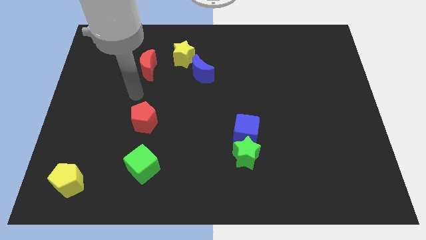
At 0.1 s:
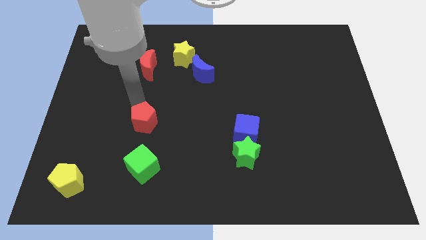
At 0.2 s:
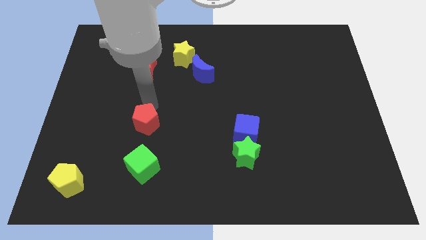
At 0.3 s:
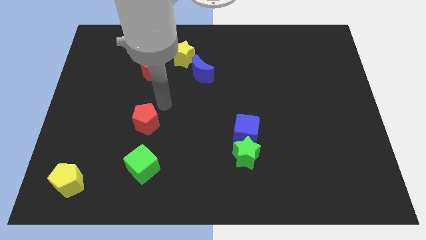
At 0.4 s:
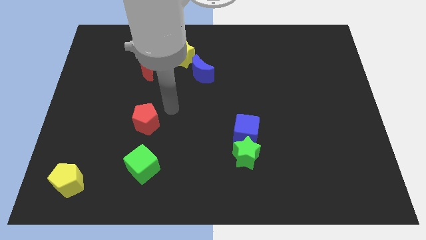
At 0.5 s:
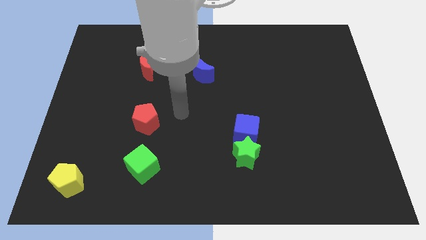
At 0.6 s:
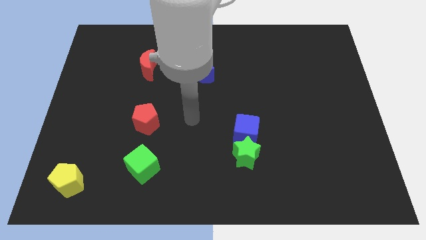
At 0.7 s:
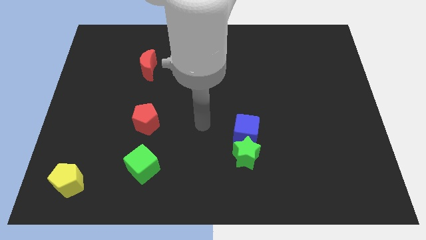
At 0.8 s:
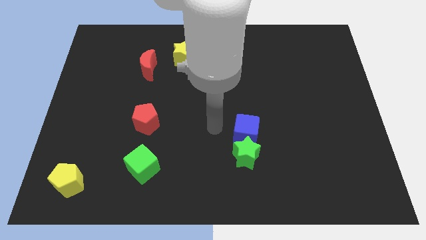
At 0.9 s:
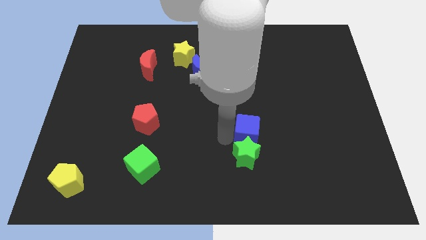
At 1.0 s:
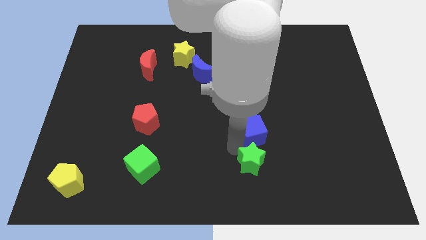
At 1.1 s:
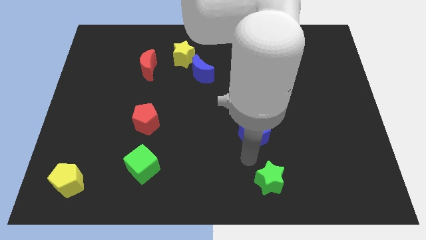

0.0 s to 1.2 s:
move the blue cube away from the green star

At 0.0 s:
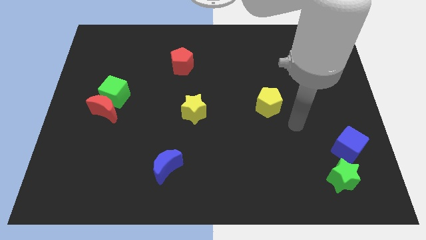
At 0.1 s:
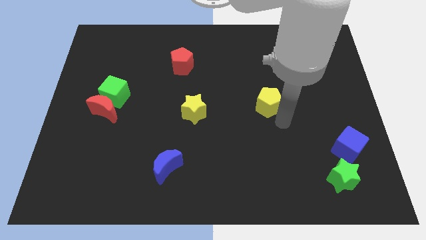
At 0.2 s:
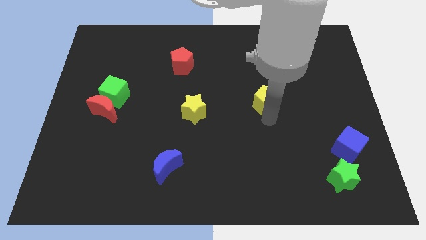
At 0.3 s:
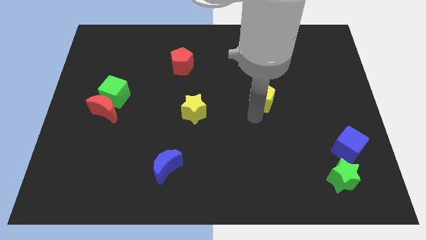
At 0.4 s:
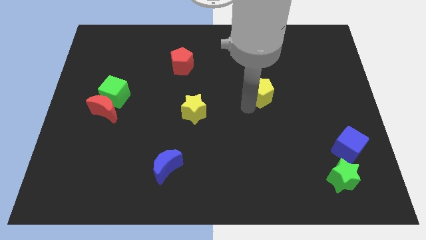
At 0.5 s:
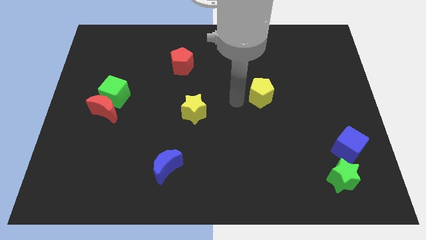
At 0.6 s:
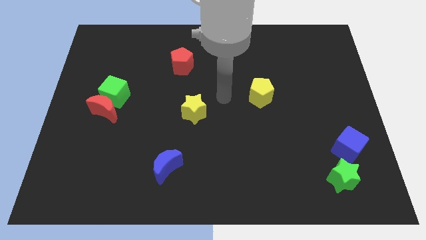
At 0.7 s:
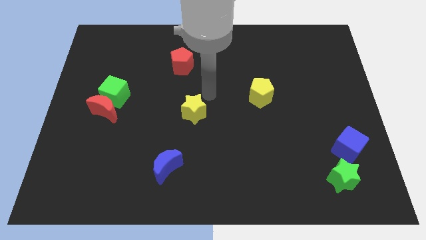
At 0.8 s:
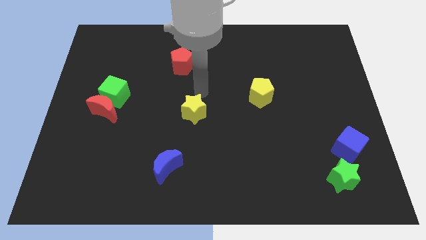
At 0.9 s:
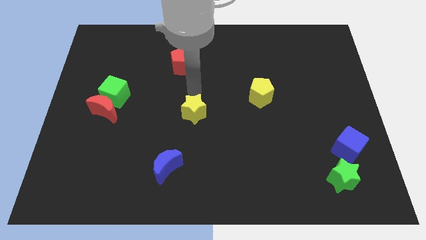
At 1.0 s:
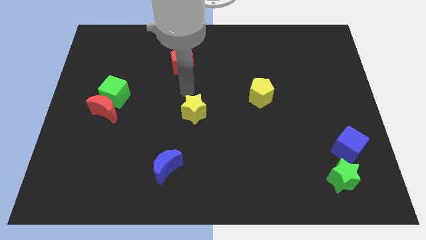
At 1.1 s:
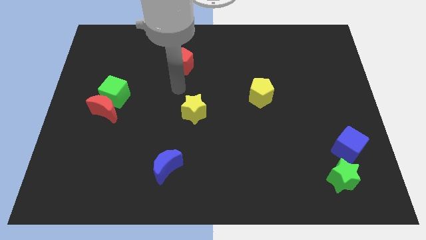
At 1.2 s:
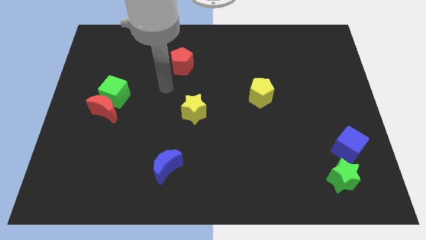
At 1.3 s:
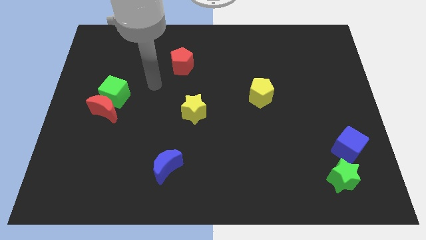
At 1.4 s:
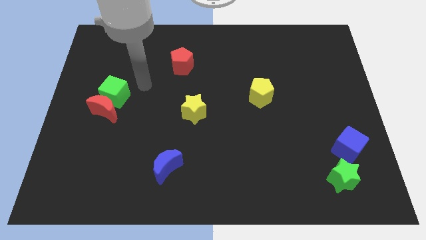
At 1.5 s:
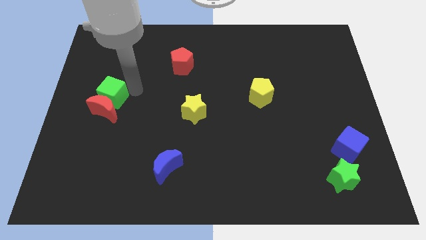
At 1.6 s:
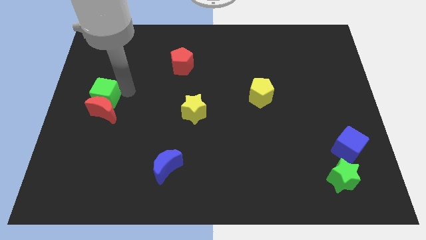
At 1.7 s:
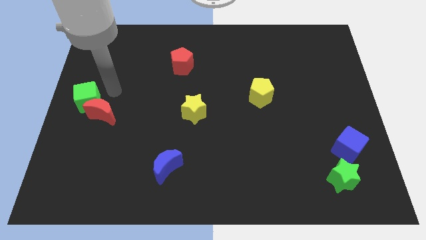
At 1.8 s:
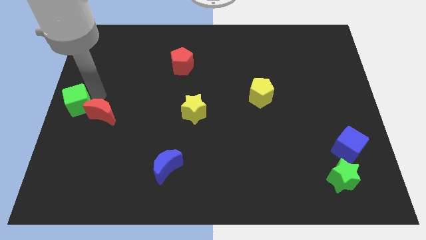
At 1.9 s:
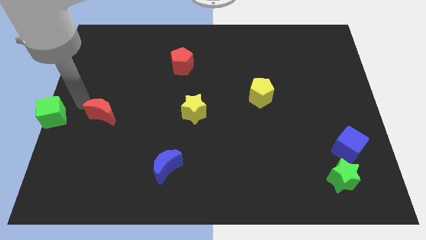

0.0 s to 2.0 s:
pull the red moon apart from the green cube

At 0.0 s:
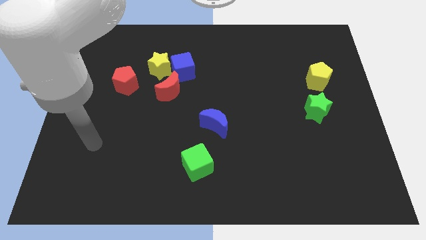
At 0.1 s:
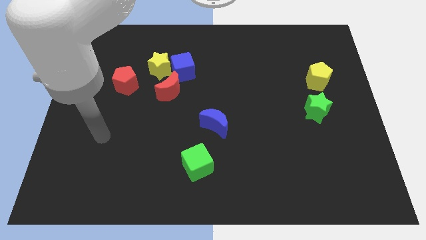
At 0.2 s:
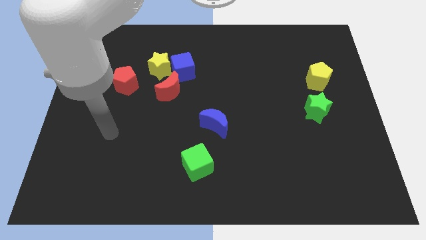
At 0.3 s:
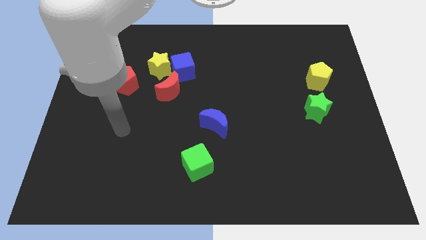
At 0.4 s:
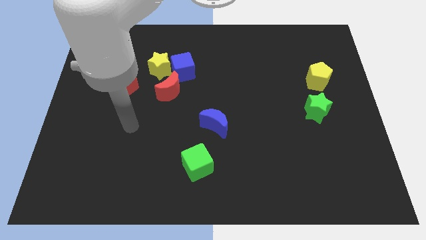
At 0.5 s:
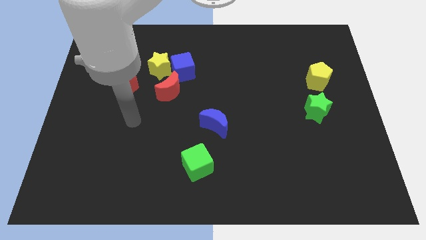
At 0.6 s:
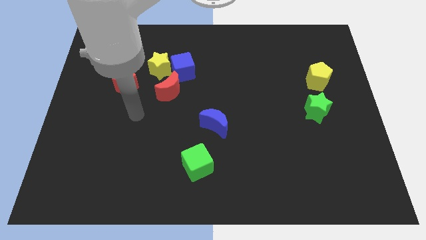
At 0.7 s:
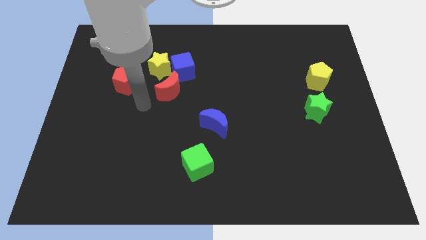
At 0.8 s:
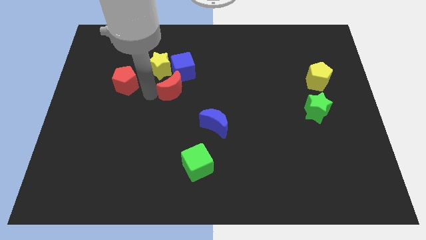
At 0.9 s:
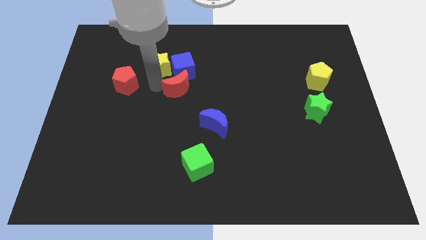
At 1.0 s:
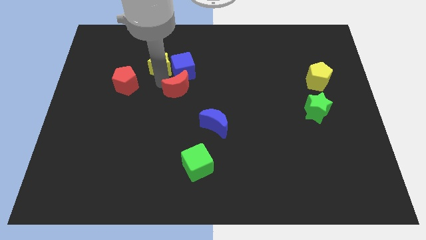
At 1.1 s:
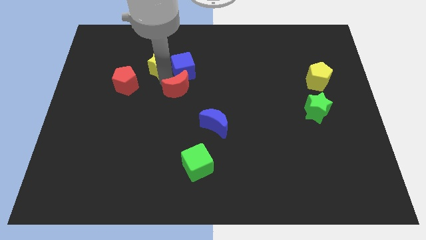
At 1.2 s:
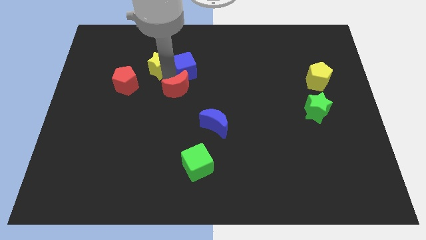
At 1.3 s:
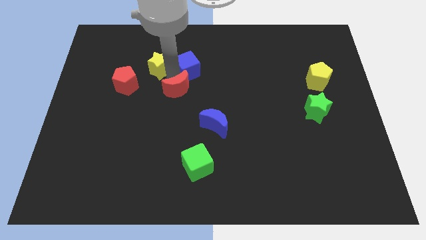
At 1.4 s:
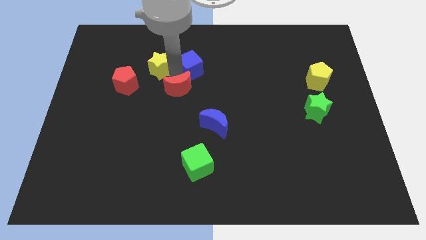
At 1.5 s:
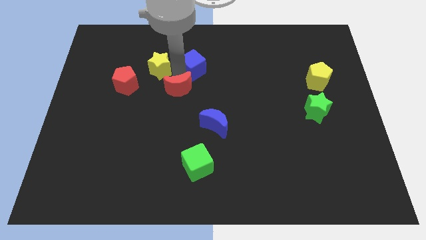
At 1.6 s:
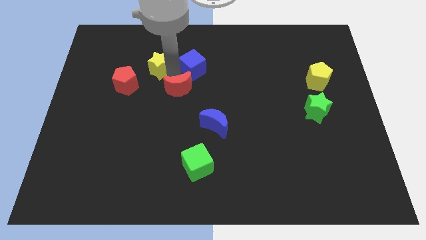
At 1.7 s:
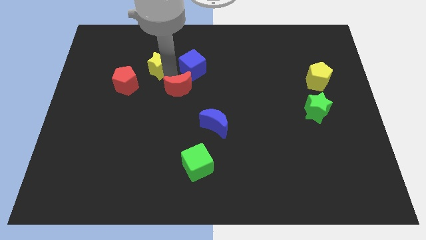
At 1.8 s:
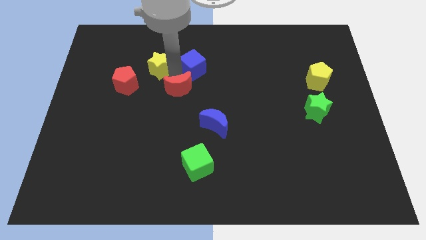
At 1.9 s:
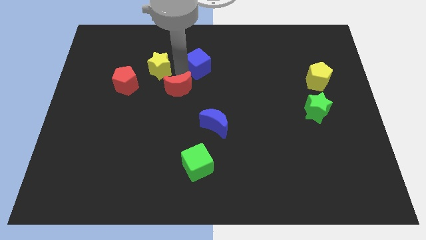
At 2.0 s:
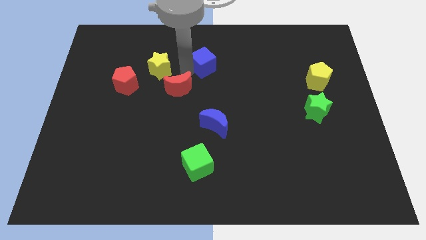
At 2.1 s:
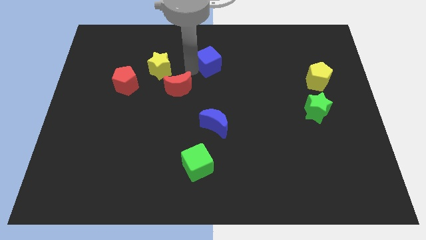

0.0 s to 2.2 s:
separate the blue cube from the yellow star and red moon

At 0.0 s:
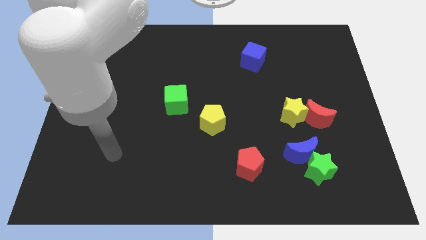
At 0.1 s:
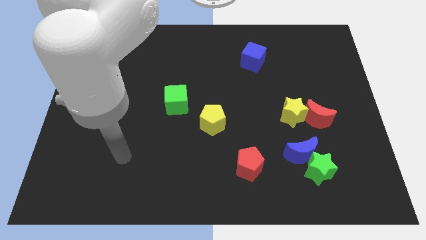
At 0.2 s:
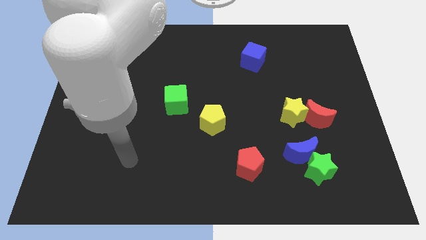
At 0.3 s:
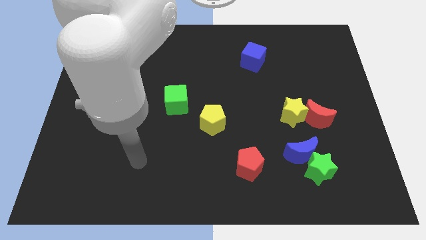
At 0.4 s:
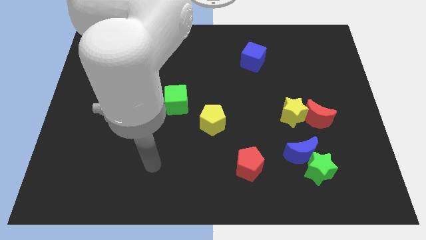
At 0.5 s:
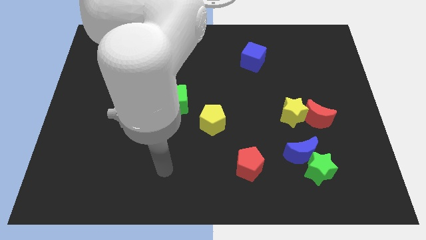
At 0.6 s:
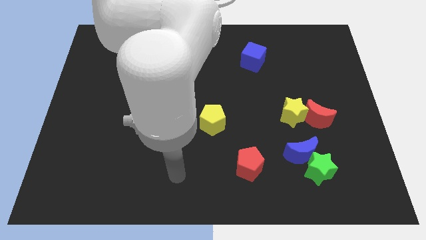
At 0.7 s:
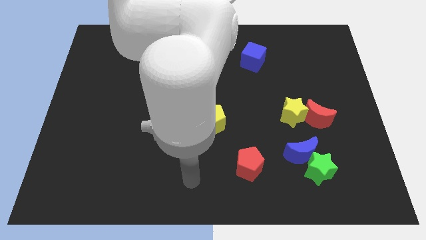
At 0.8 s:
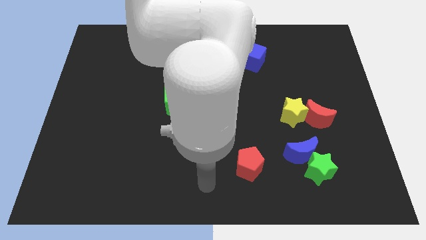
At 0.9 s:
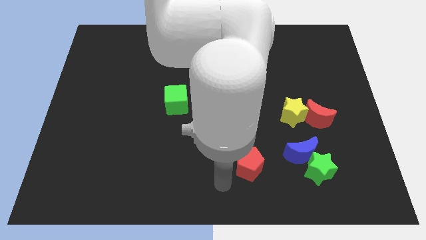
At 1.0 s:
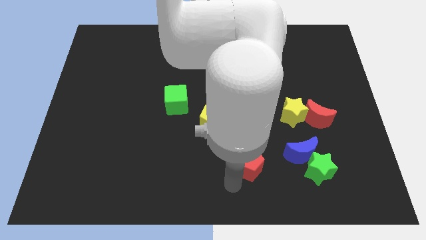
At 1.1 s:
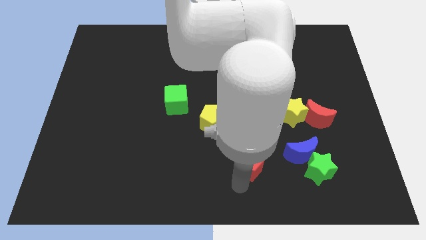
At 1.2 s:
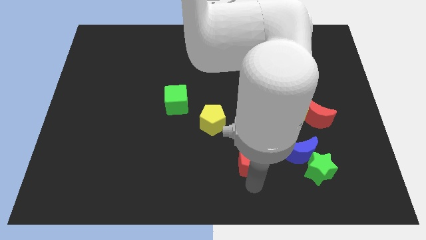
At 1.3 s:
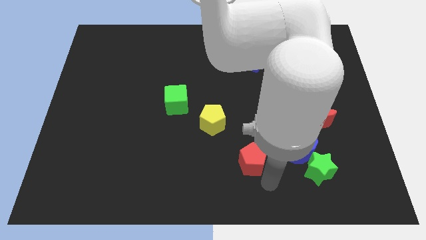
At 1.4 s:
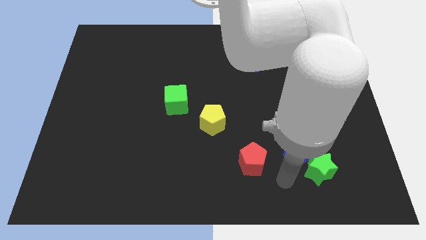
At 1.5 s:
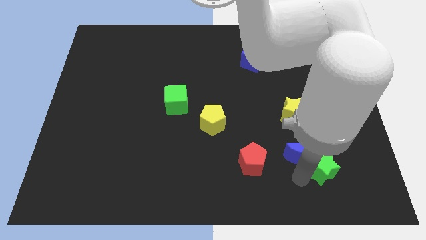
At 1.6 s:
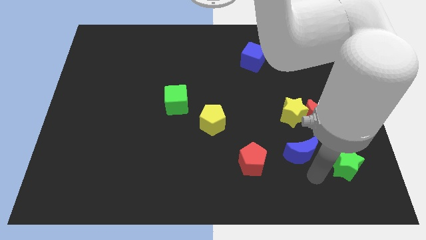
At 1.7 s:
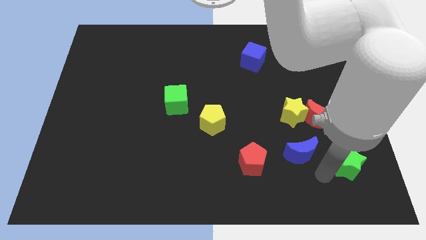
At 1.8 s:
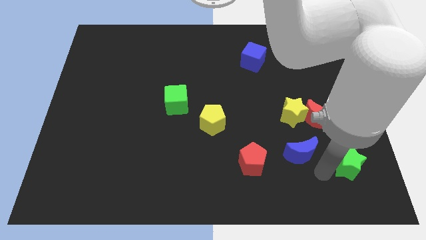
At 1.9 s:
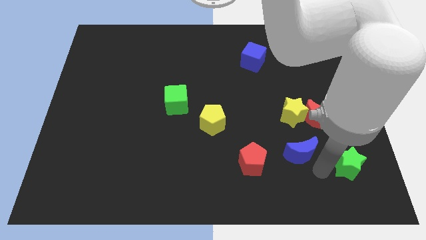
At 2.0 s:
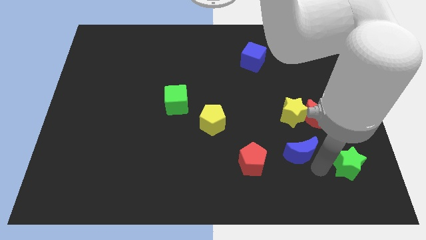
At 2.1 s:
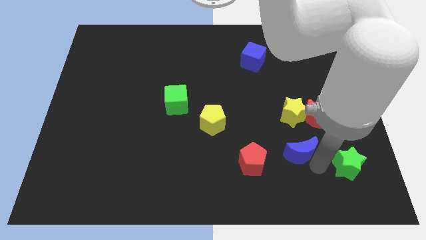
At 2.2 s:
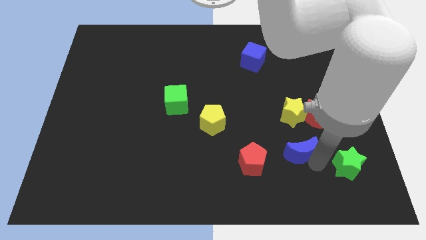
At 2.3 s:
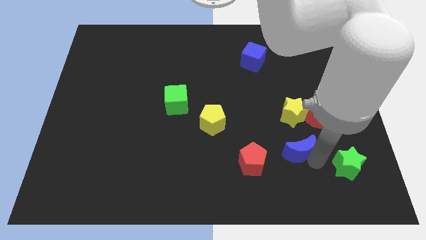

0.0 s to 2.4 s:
pull the blue moon apart from the green star

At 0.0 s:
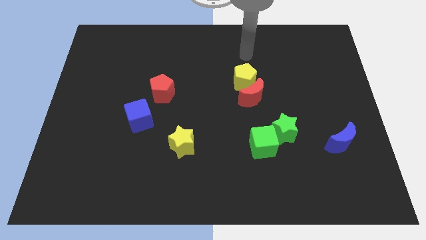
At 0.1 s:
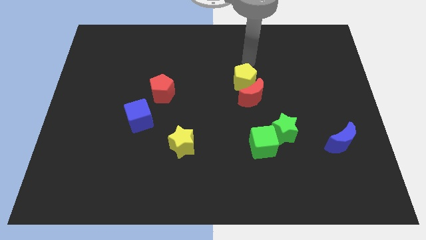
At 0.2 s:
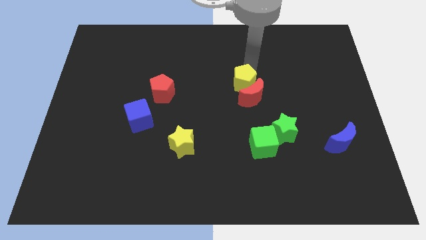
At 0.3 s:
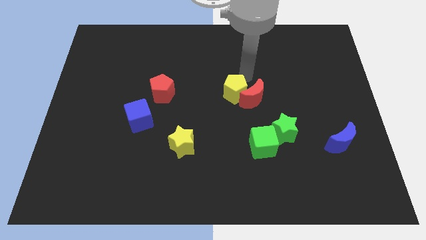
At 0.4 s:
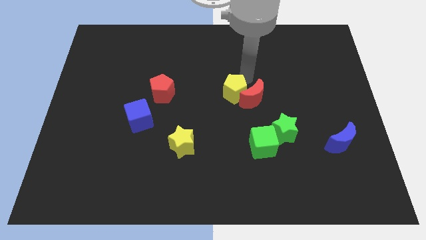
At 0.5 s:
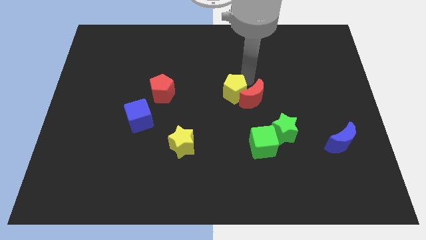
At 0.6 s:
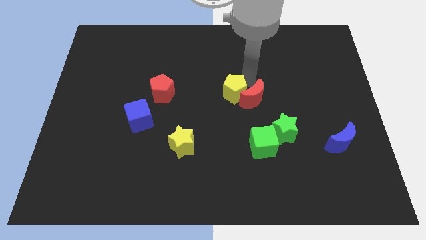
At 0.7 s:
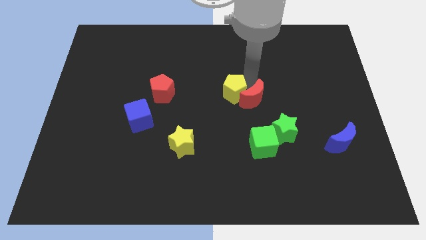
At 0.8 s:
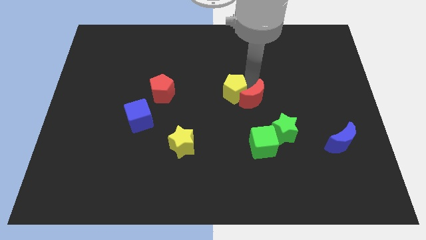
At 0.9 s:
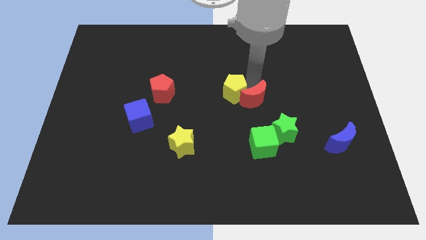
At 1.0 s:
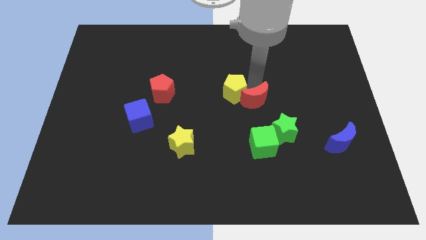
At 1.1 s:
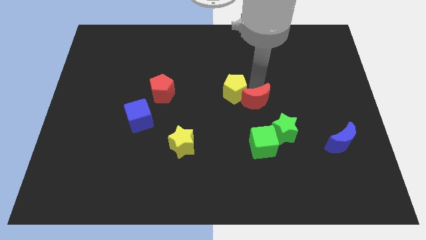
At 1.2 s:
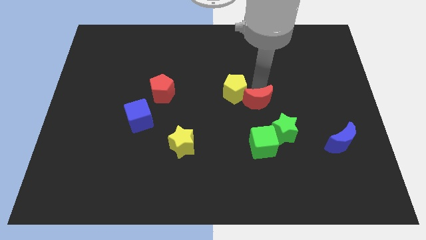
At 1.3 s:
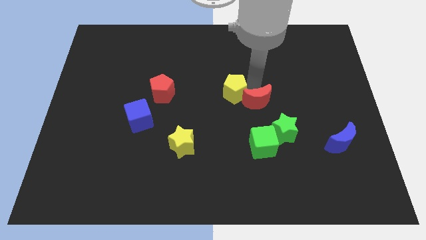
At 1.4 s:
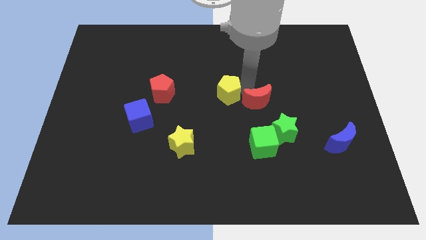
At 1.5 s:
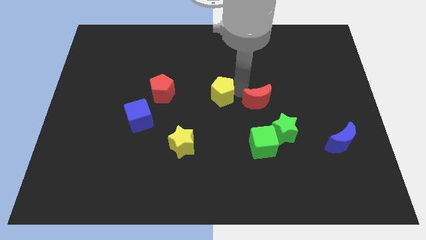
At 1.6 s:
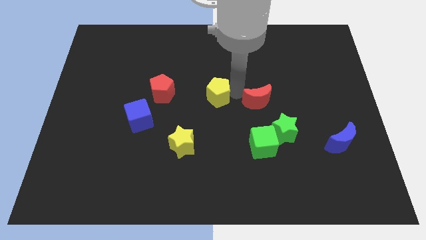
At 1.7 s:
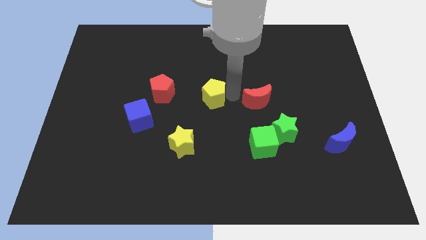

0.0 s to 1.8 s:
pull the red moon apart from the yellow pentagon
